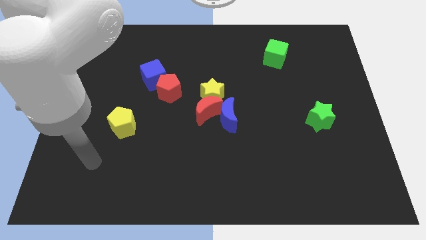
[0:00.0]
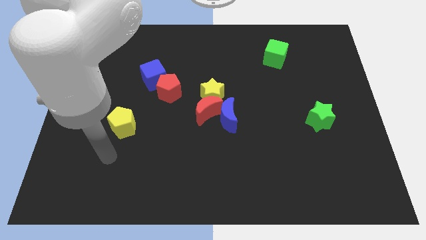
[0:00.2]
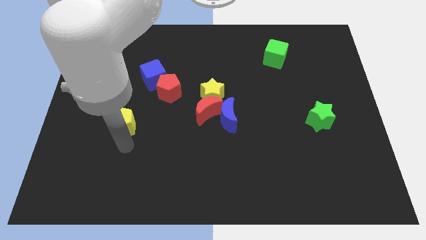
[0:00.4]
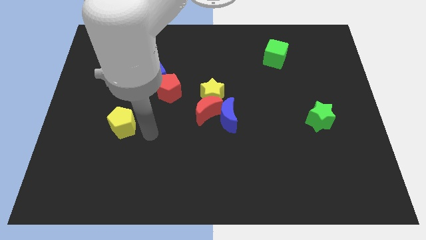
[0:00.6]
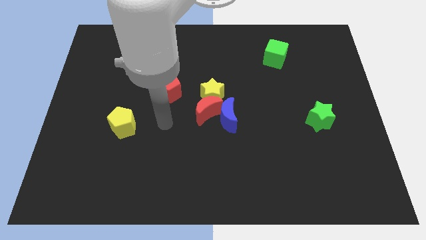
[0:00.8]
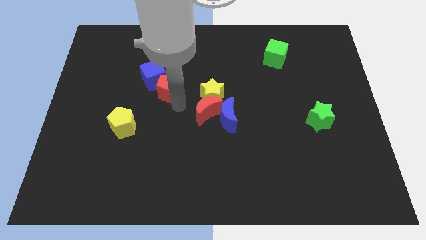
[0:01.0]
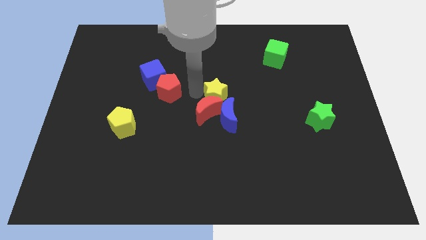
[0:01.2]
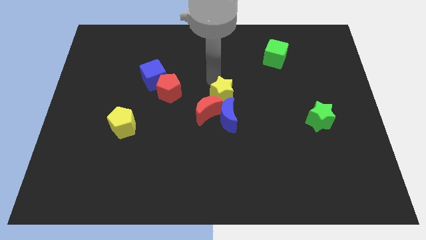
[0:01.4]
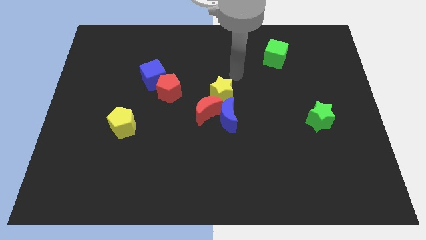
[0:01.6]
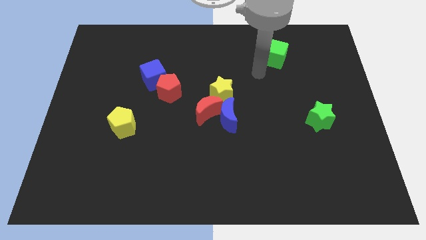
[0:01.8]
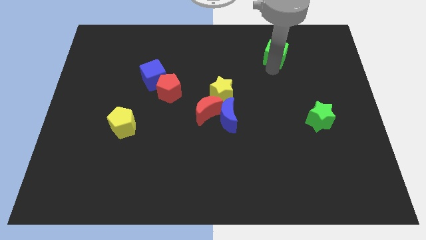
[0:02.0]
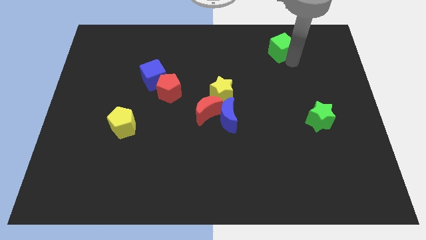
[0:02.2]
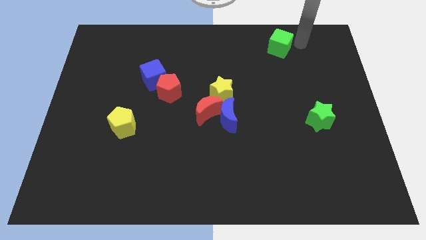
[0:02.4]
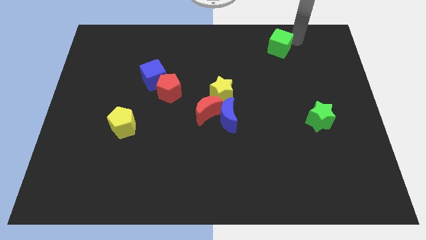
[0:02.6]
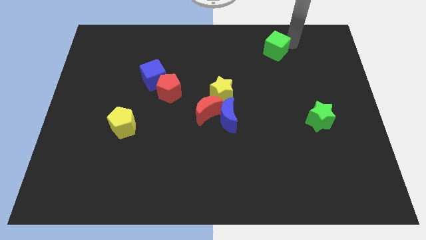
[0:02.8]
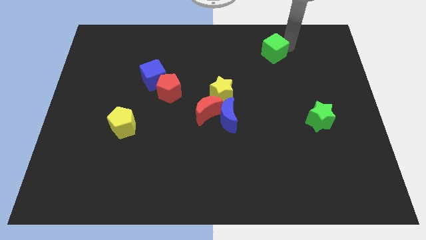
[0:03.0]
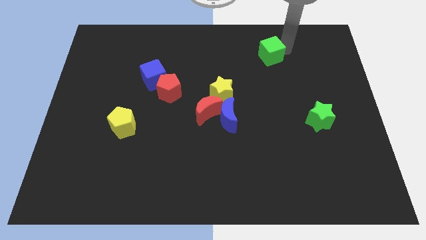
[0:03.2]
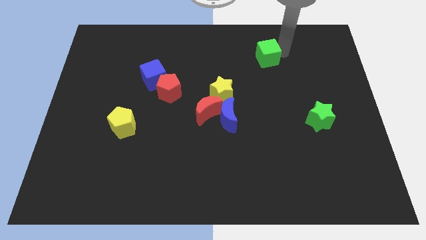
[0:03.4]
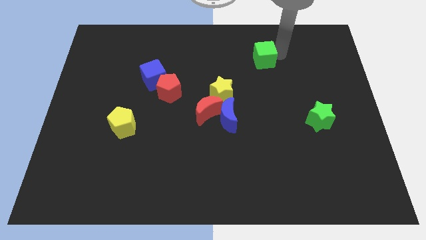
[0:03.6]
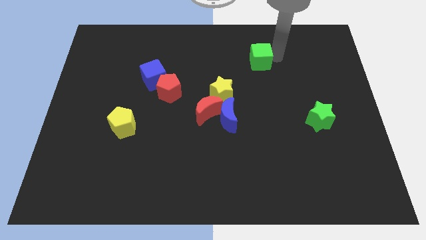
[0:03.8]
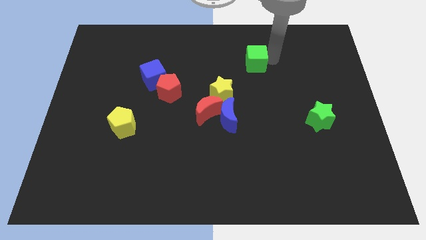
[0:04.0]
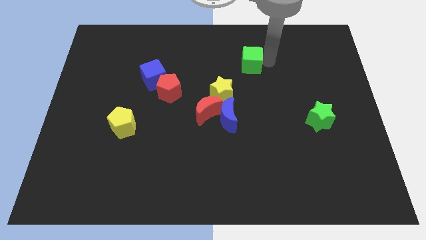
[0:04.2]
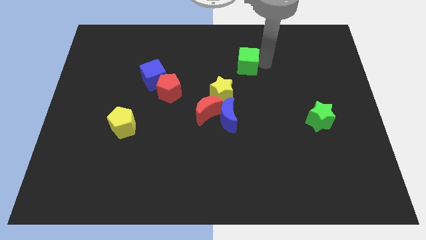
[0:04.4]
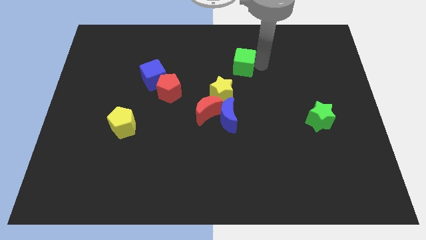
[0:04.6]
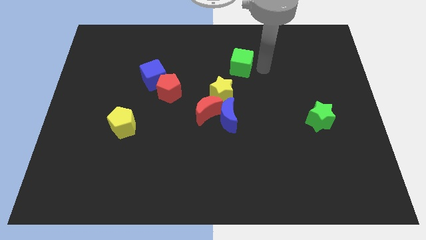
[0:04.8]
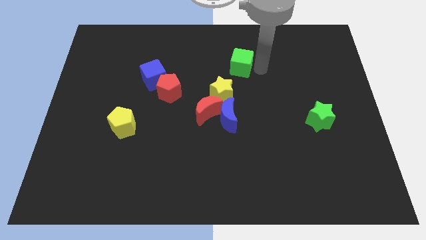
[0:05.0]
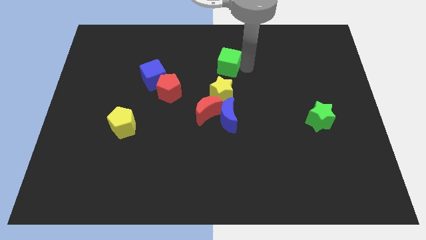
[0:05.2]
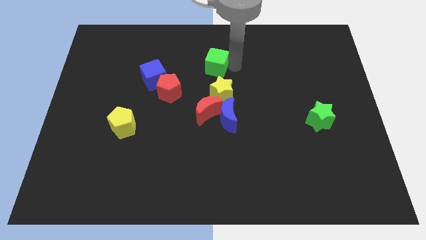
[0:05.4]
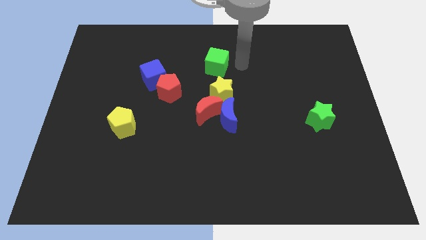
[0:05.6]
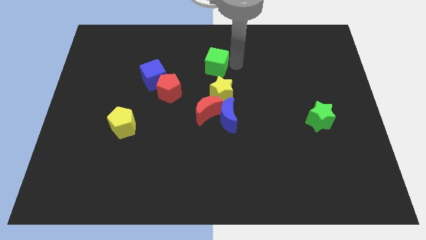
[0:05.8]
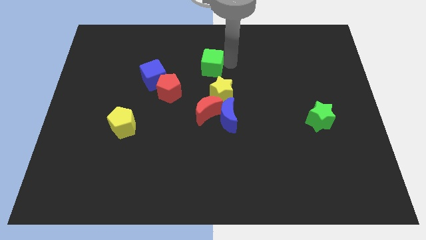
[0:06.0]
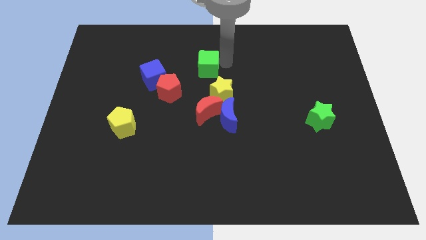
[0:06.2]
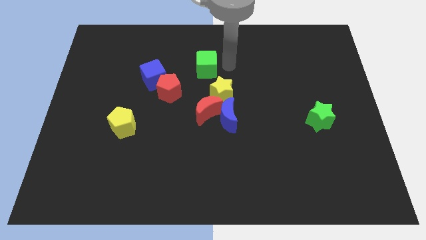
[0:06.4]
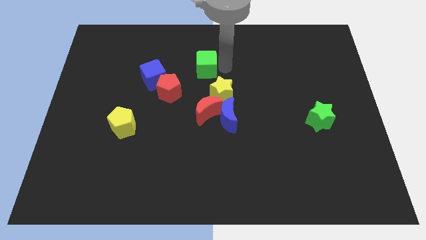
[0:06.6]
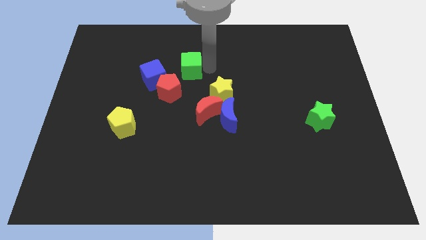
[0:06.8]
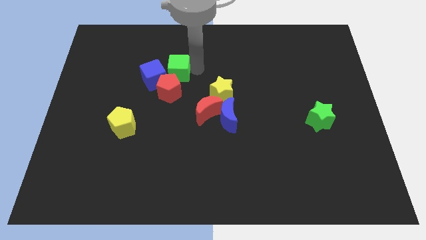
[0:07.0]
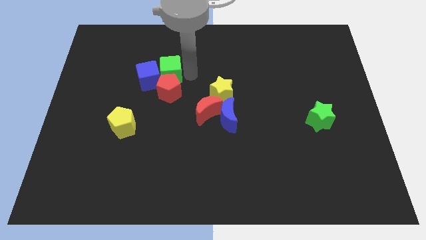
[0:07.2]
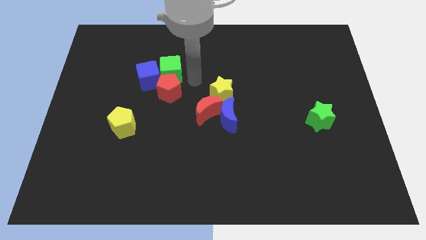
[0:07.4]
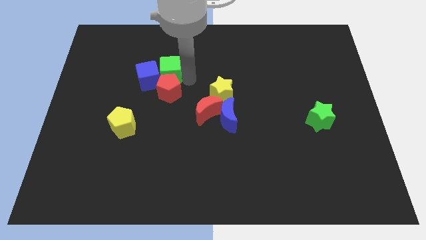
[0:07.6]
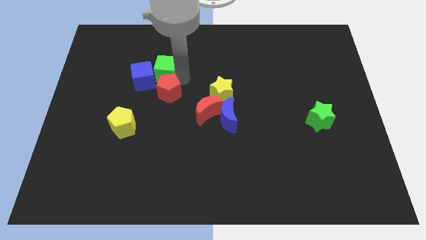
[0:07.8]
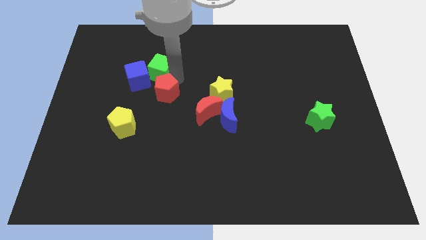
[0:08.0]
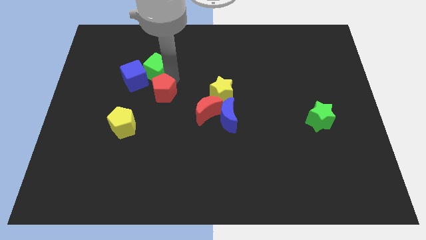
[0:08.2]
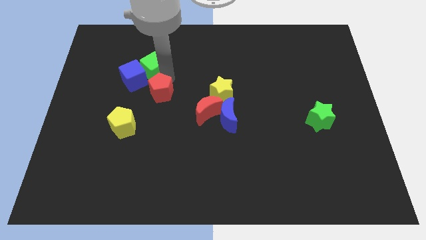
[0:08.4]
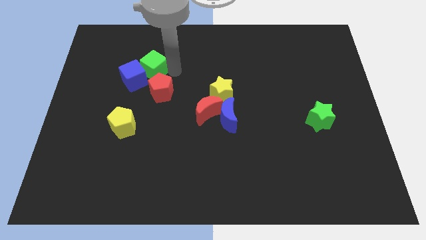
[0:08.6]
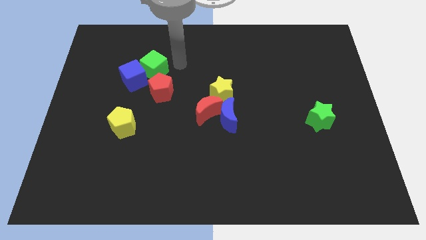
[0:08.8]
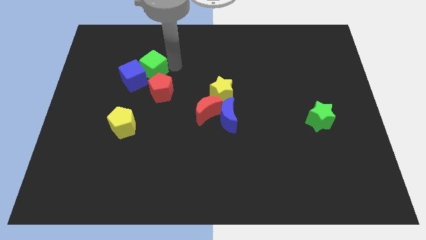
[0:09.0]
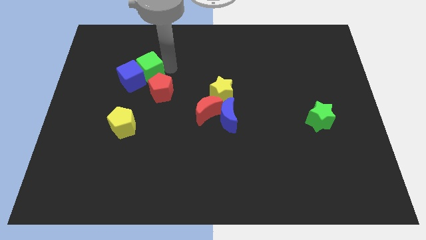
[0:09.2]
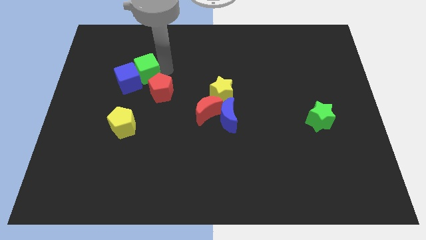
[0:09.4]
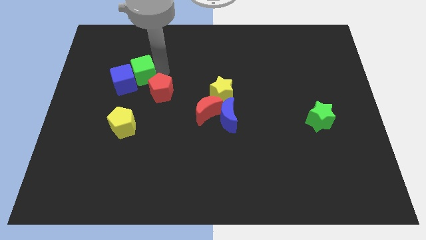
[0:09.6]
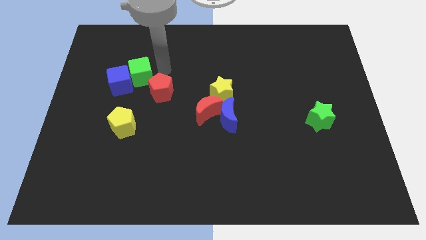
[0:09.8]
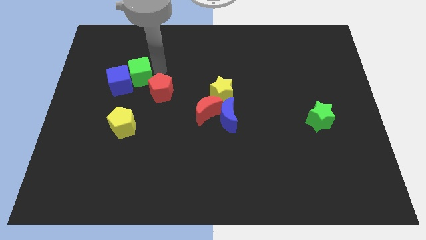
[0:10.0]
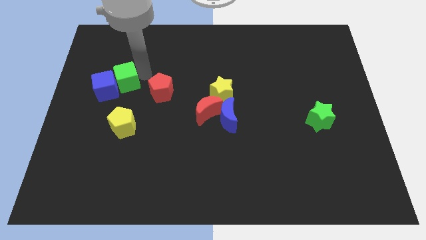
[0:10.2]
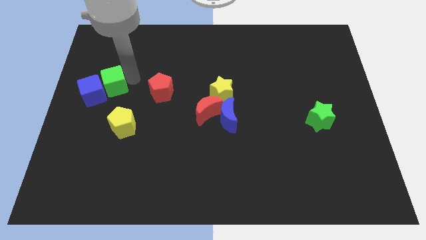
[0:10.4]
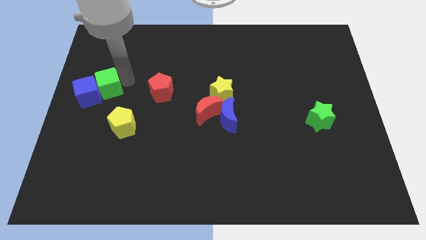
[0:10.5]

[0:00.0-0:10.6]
move the green cube to the left side
